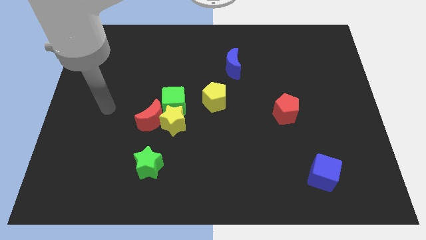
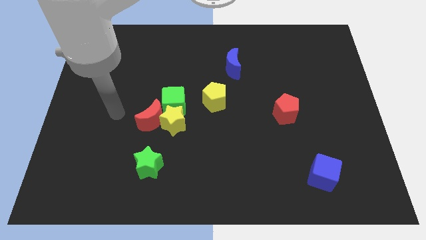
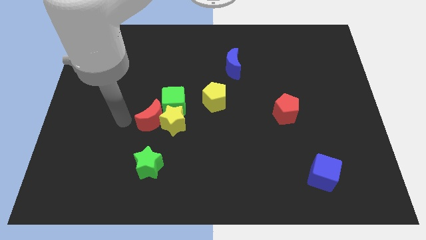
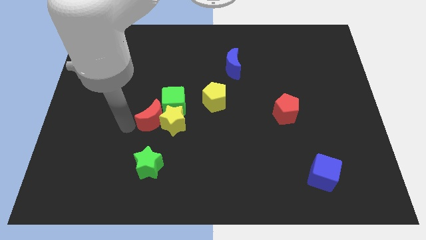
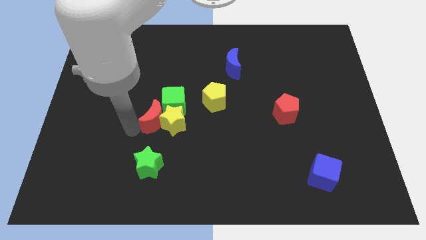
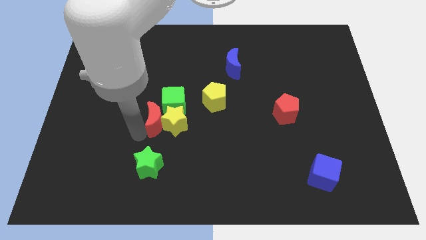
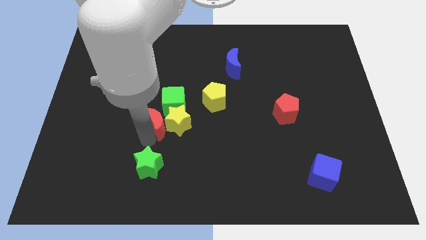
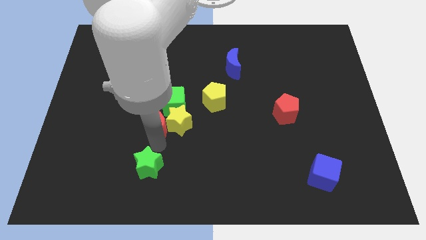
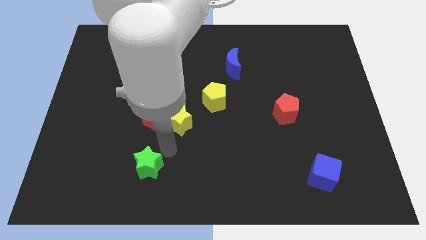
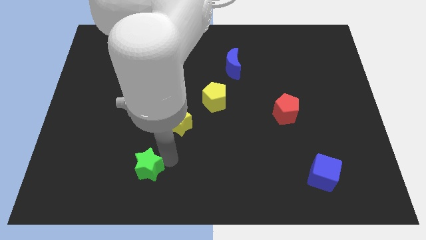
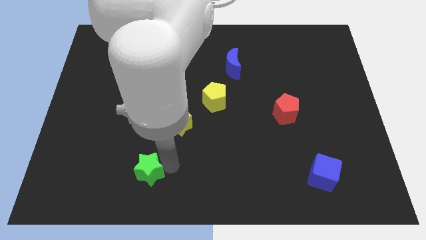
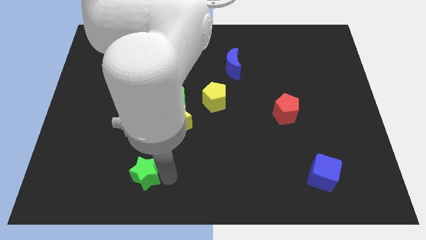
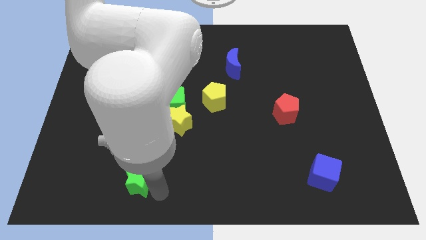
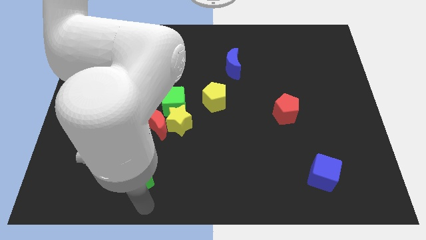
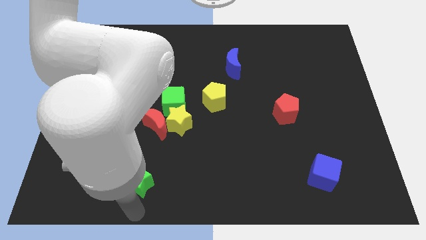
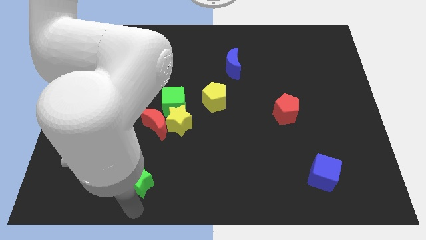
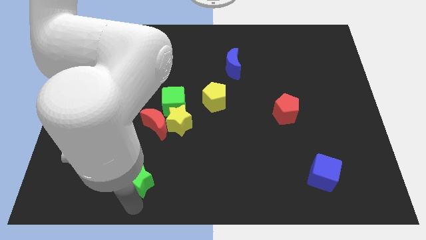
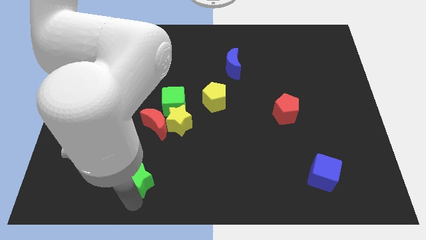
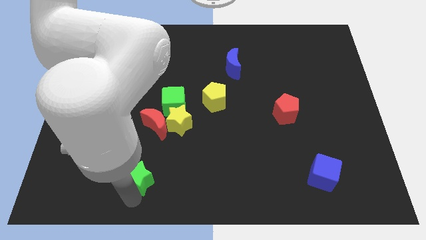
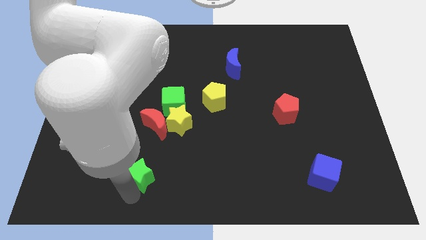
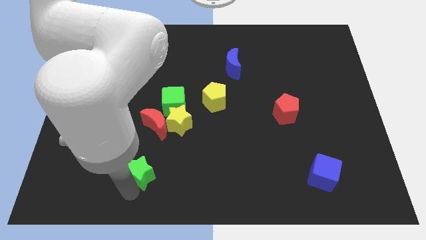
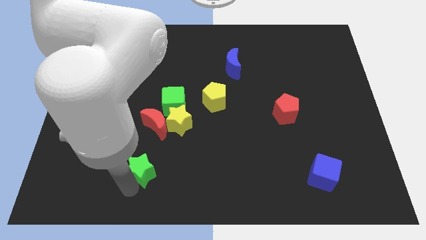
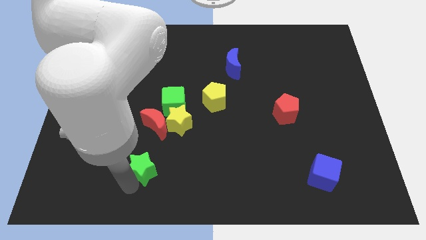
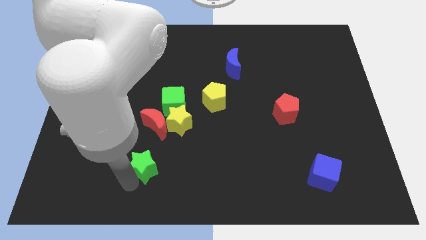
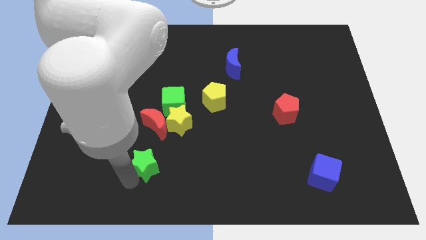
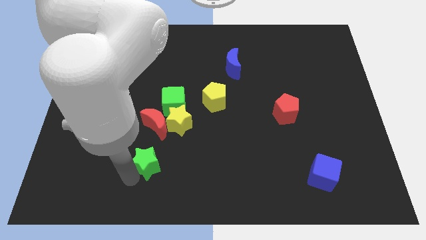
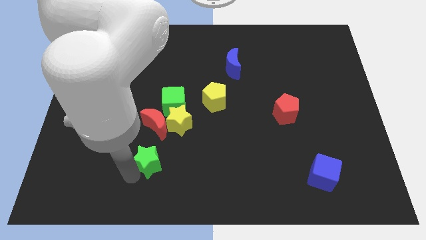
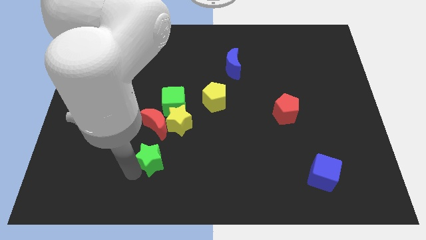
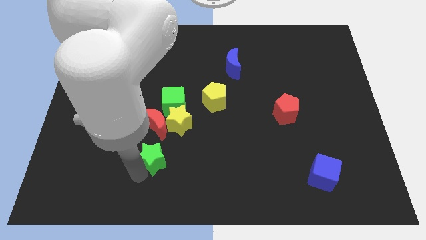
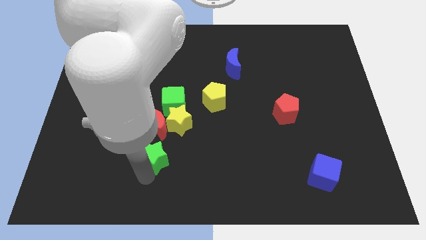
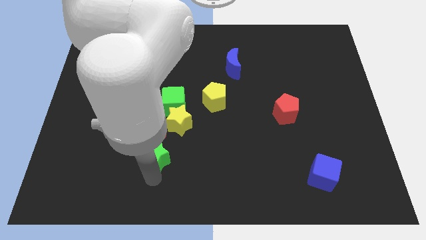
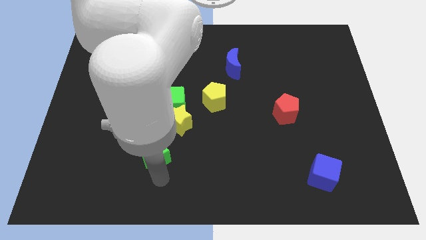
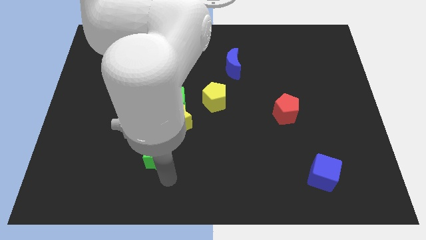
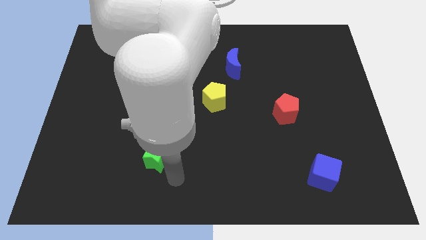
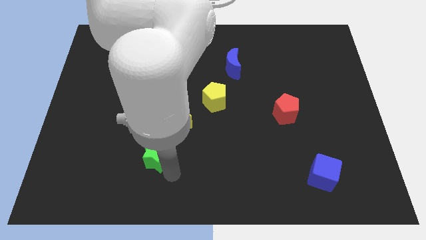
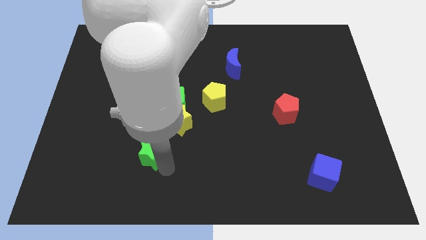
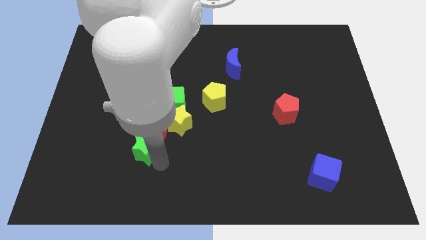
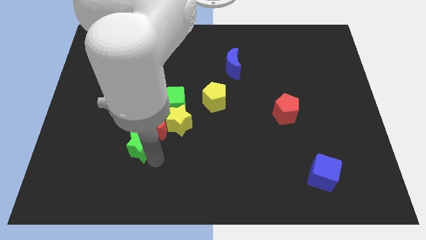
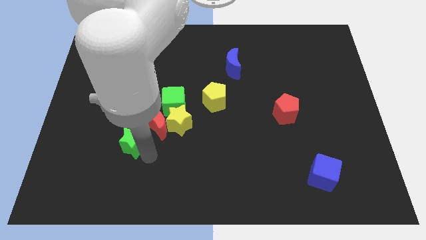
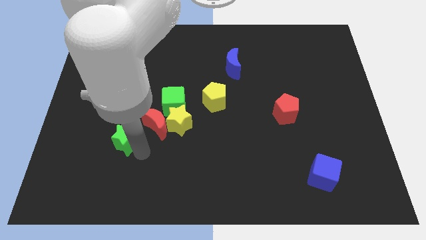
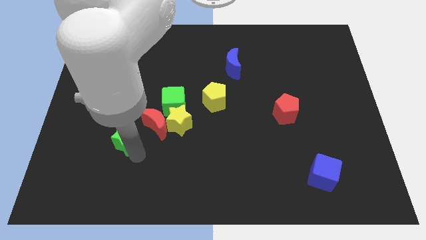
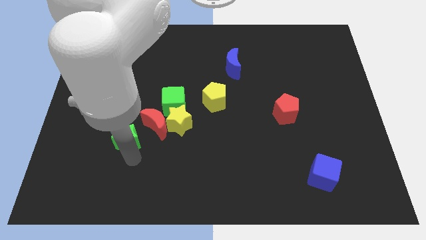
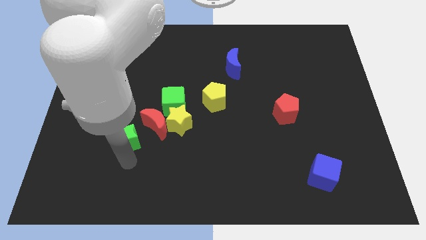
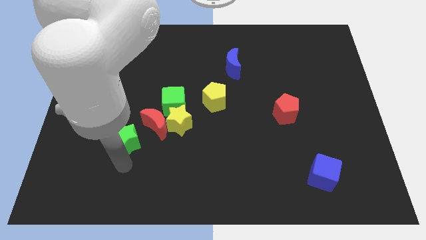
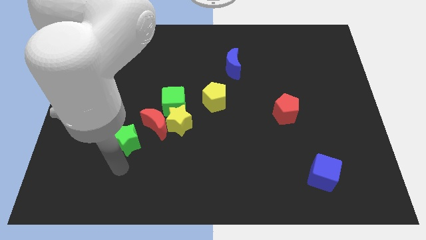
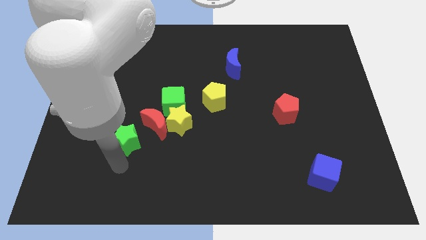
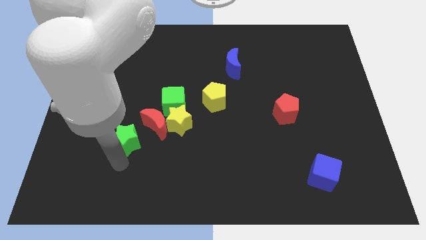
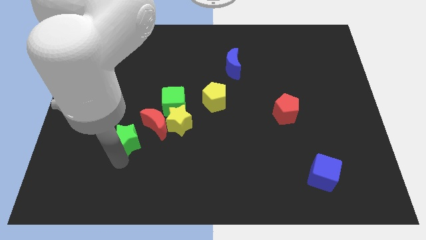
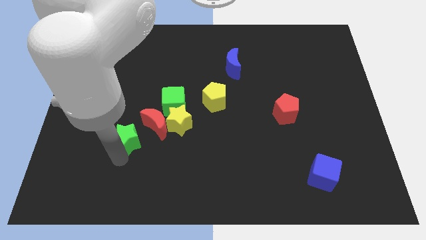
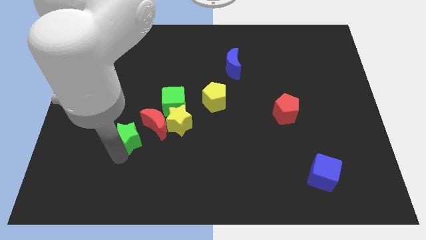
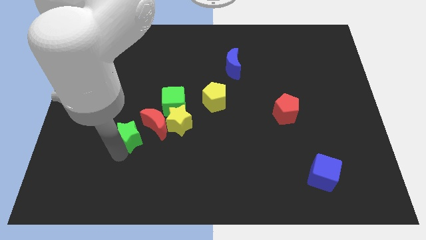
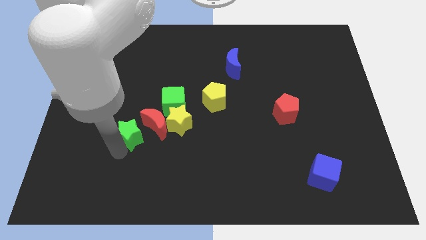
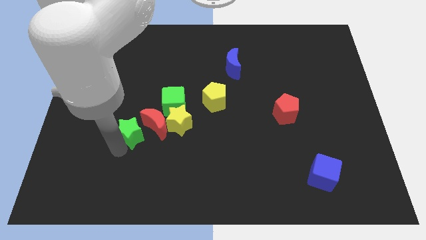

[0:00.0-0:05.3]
move the green star a little bit upwards

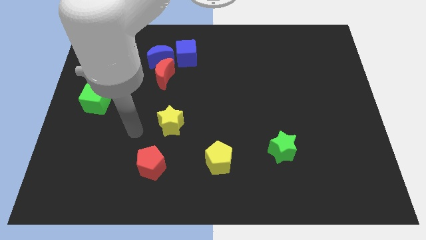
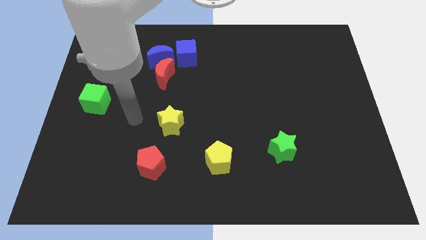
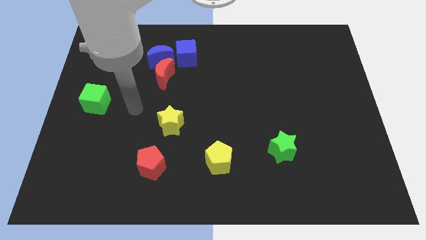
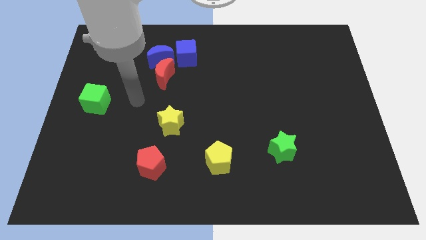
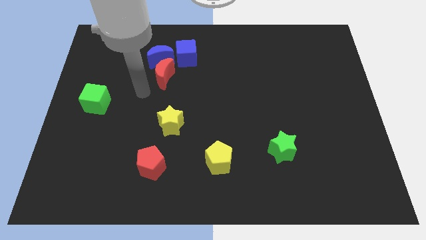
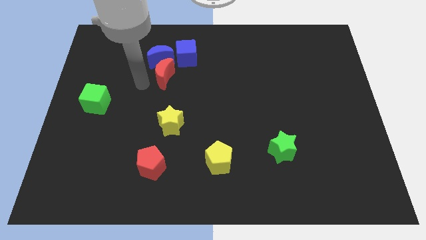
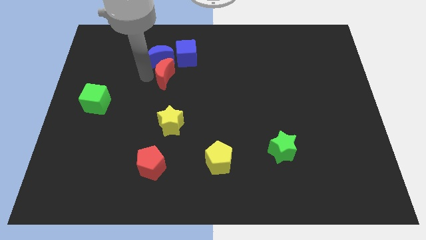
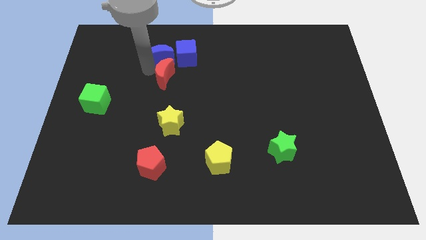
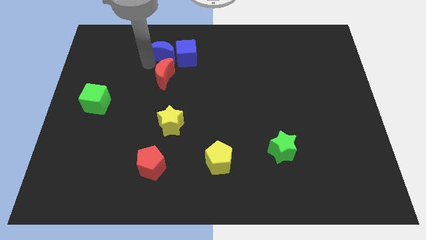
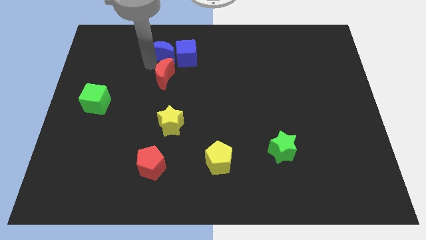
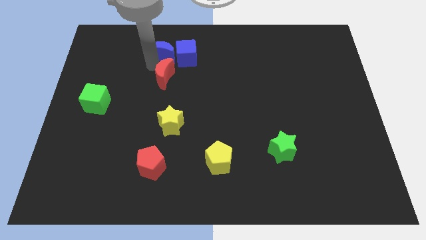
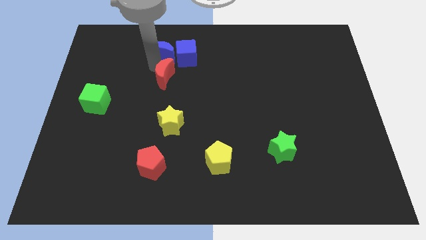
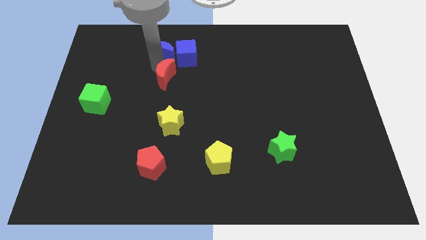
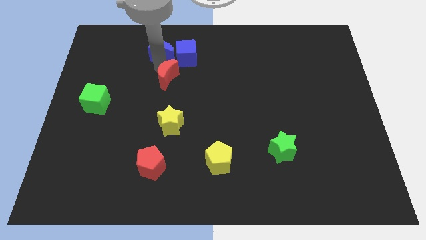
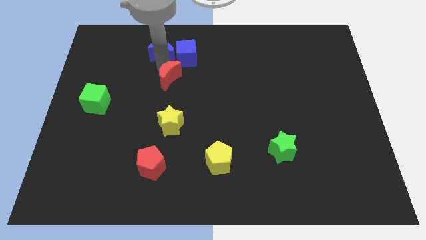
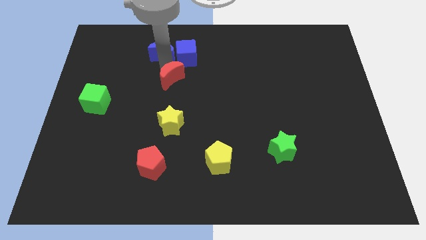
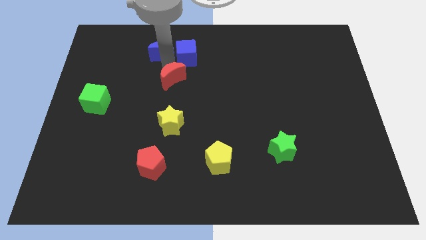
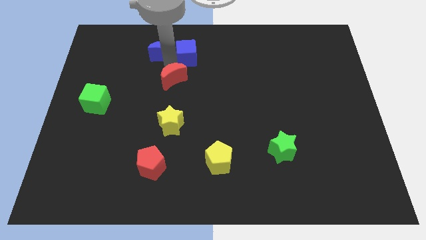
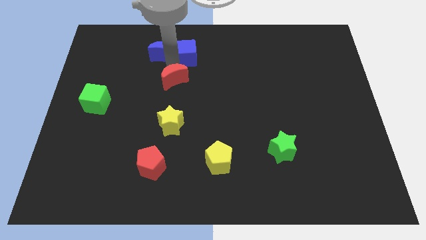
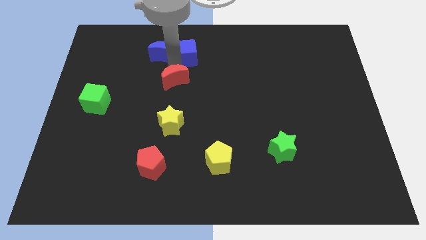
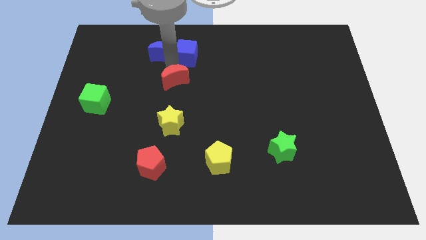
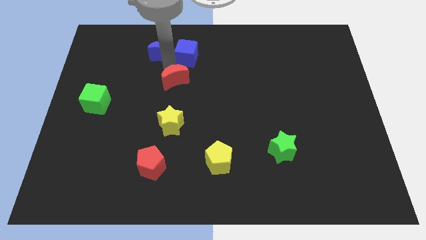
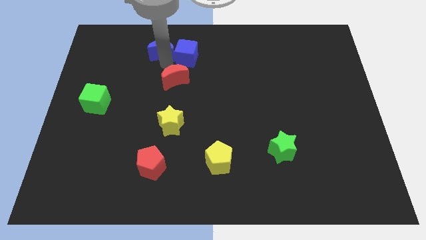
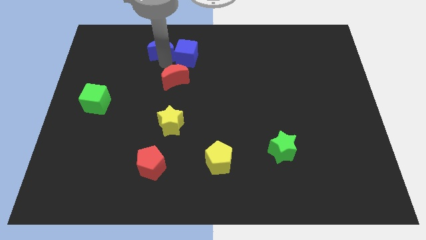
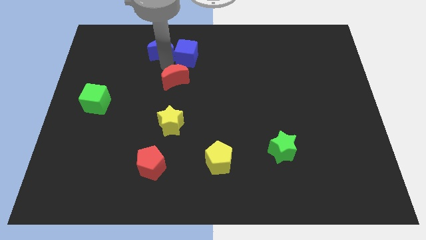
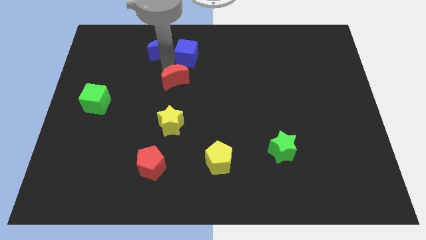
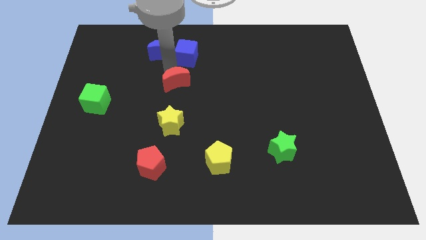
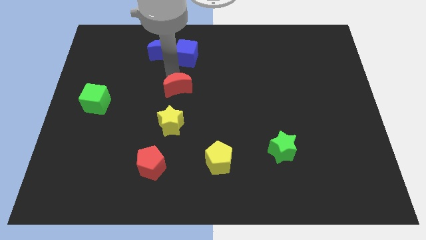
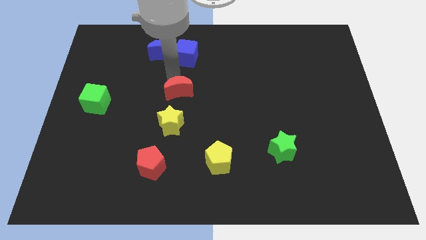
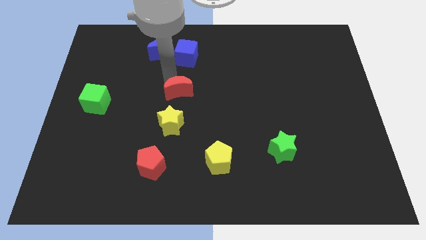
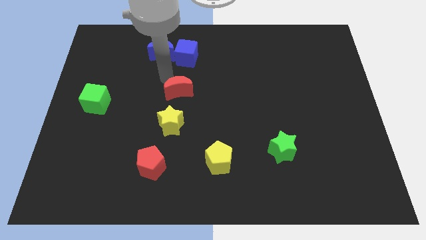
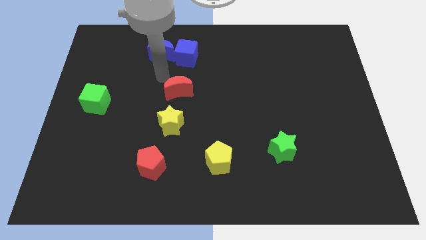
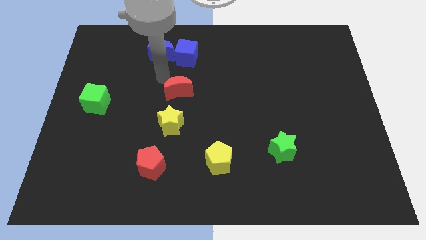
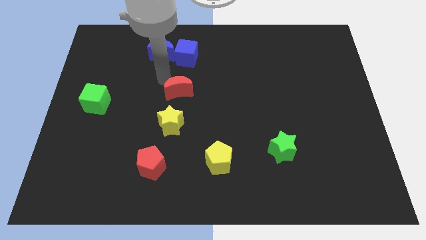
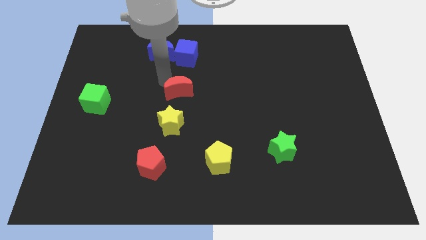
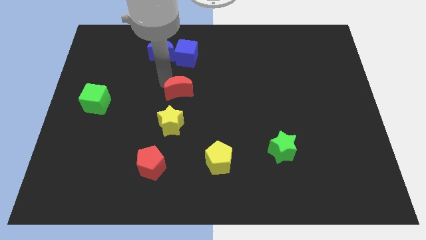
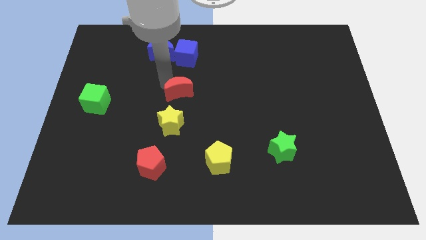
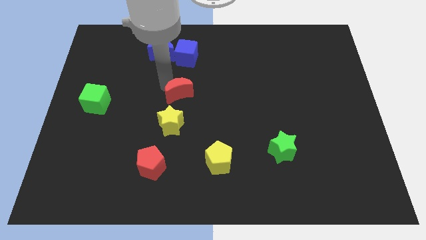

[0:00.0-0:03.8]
slightly push the red moon down and to the right diagonally
